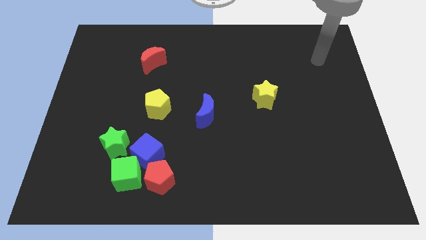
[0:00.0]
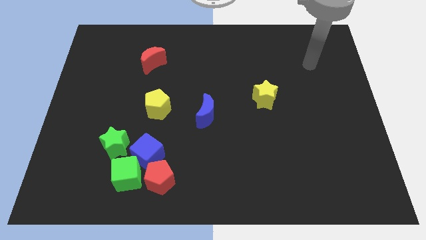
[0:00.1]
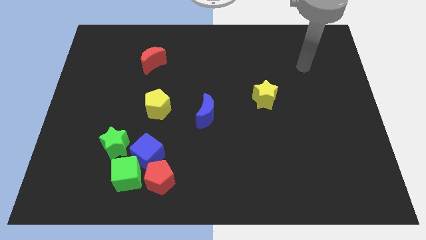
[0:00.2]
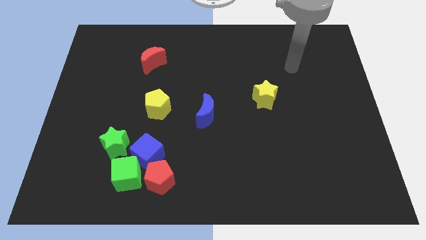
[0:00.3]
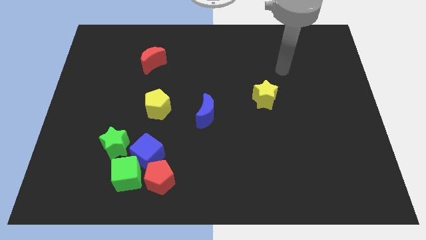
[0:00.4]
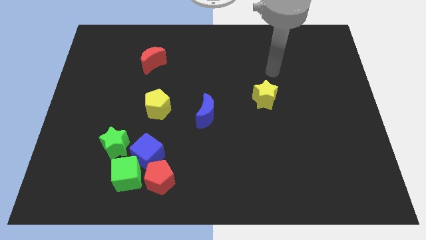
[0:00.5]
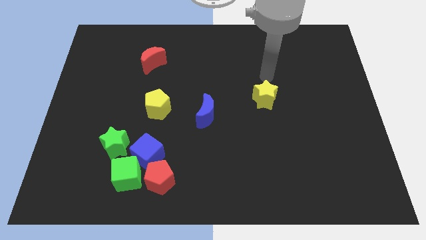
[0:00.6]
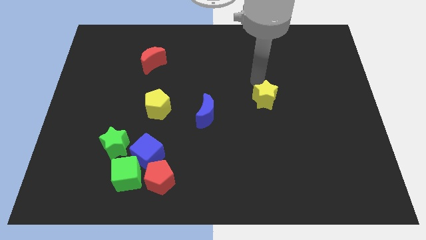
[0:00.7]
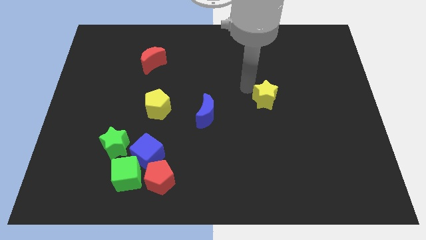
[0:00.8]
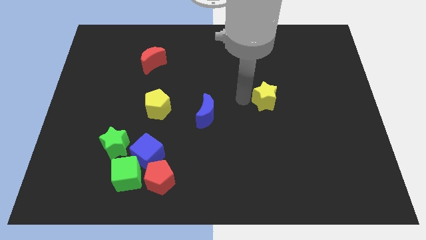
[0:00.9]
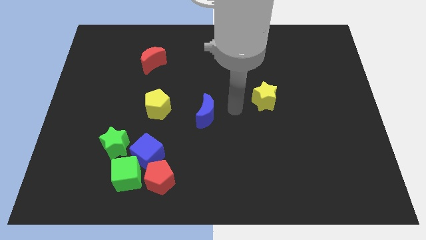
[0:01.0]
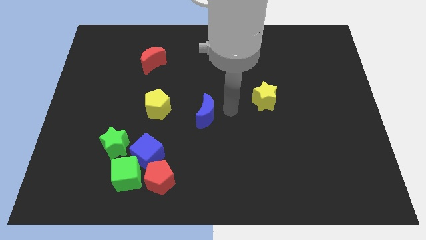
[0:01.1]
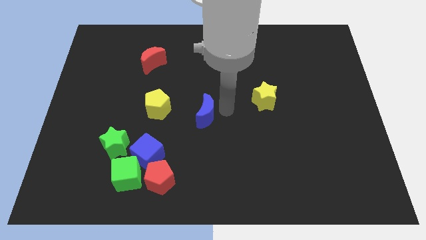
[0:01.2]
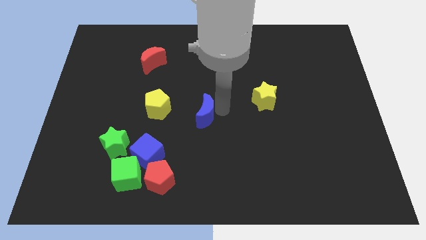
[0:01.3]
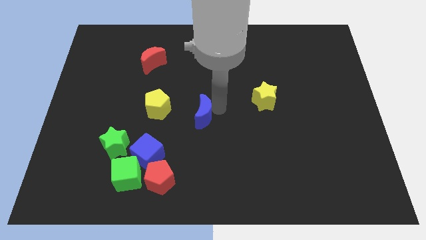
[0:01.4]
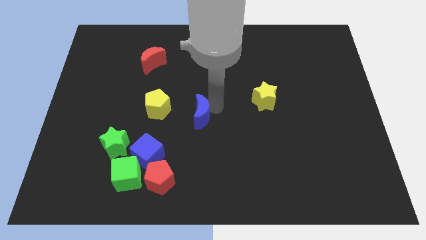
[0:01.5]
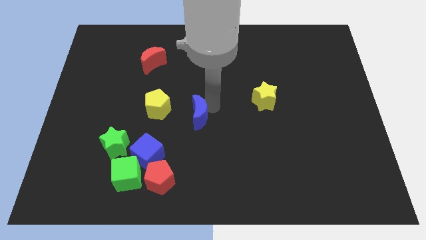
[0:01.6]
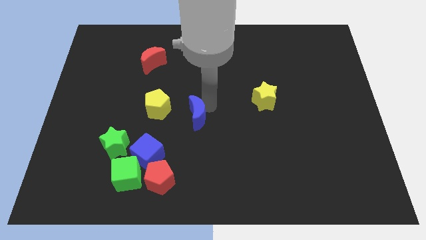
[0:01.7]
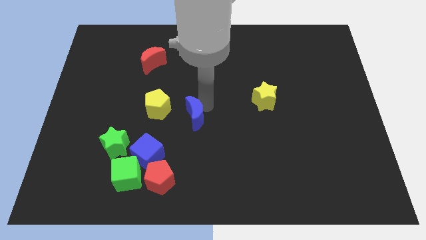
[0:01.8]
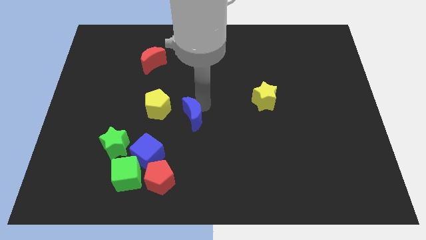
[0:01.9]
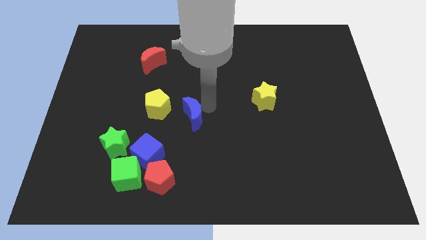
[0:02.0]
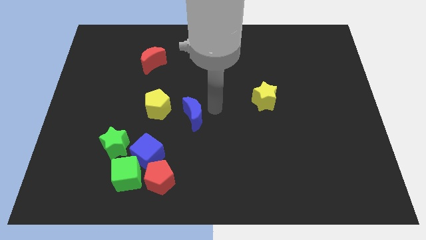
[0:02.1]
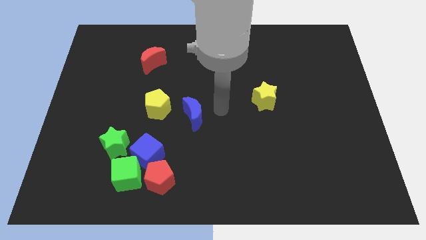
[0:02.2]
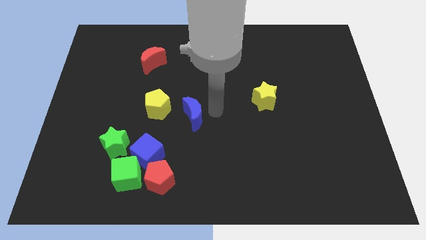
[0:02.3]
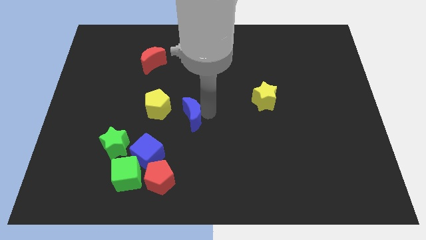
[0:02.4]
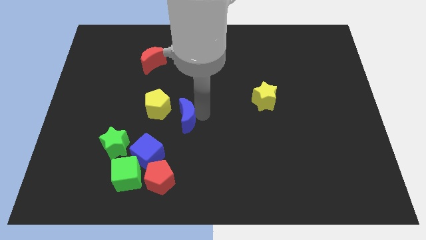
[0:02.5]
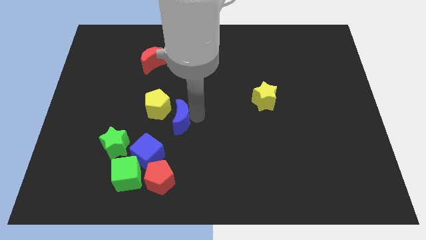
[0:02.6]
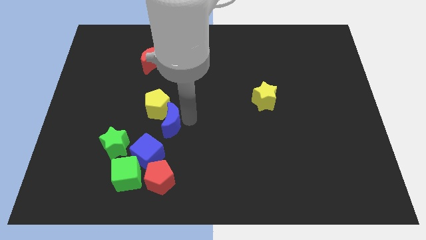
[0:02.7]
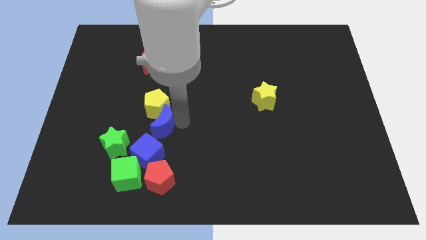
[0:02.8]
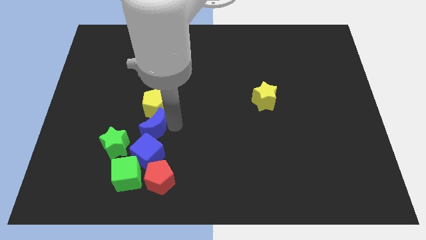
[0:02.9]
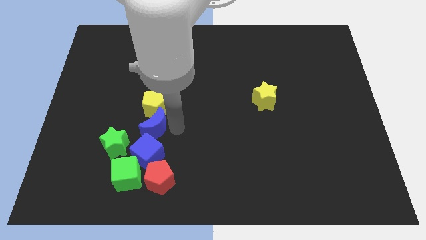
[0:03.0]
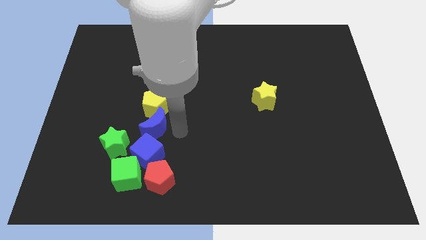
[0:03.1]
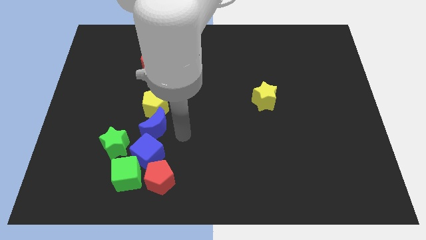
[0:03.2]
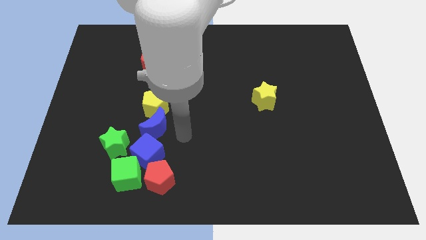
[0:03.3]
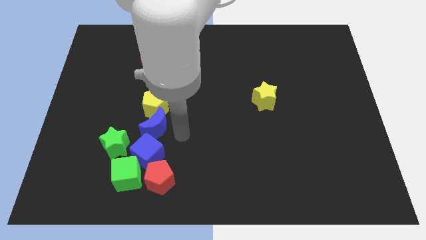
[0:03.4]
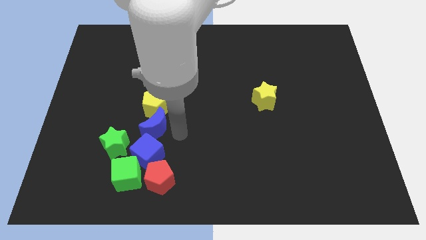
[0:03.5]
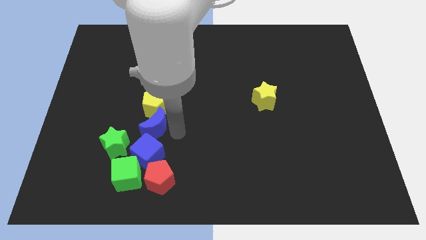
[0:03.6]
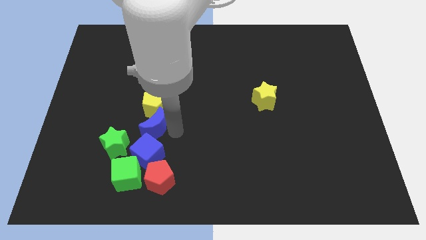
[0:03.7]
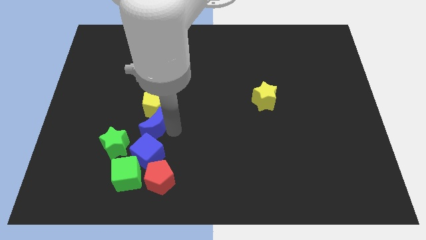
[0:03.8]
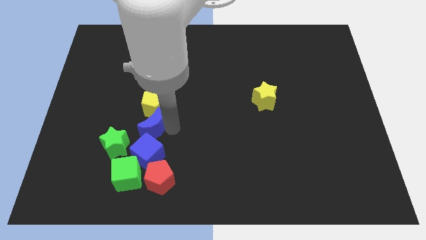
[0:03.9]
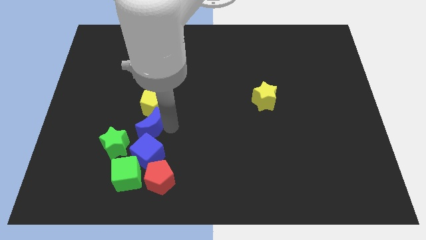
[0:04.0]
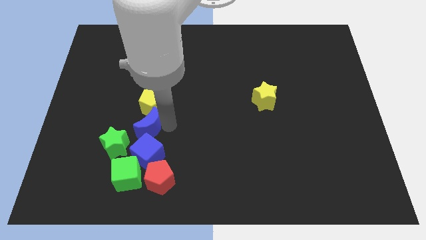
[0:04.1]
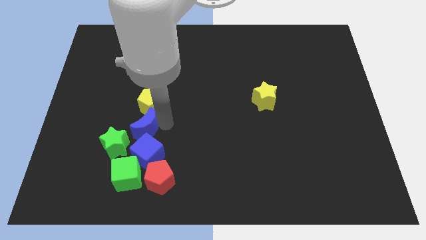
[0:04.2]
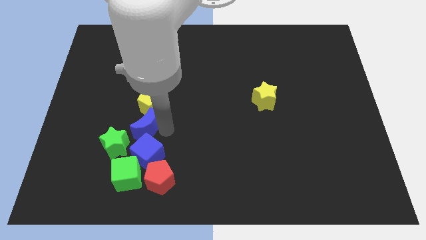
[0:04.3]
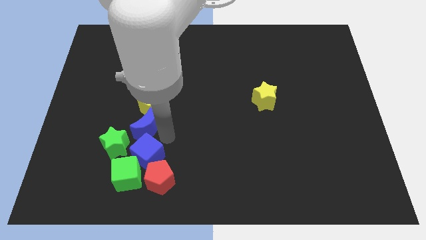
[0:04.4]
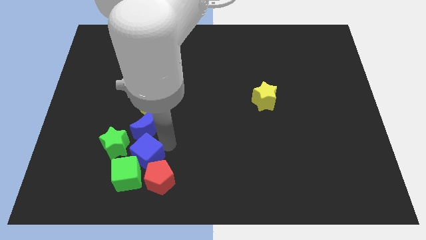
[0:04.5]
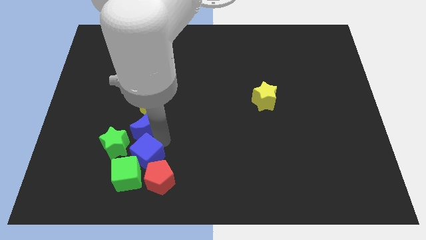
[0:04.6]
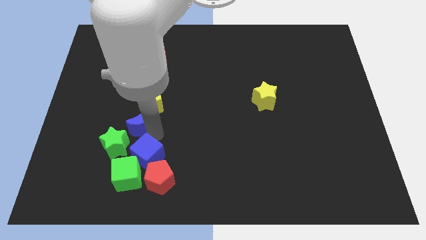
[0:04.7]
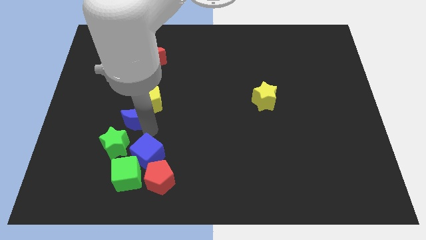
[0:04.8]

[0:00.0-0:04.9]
push the blue moon to the top of the green star

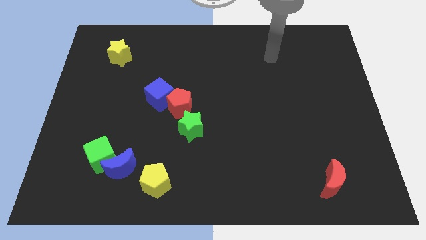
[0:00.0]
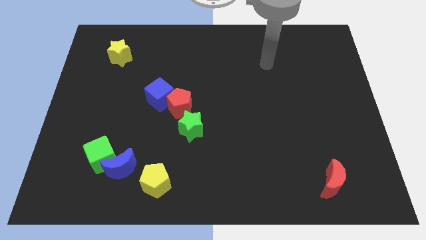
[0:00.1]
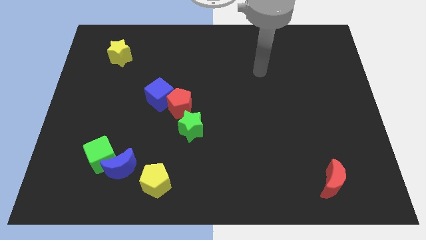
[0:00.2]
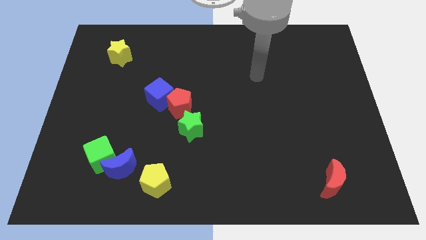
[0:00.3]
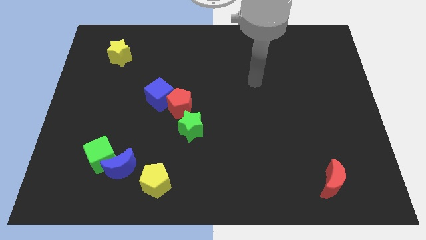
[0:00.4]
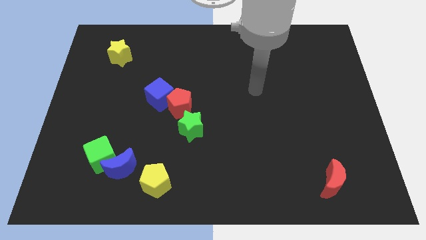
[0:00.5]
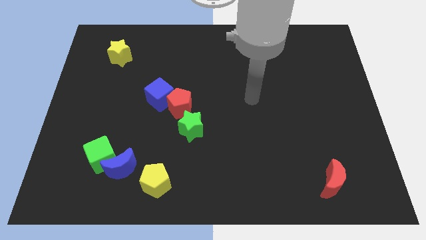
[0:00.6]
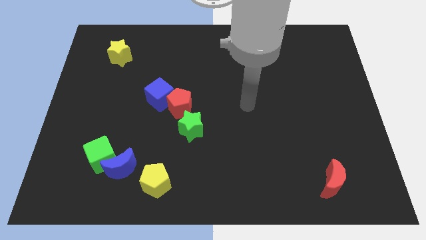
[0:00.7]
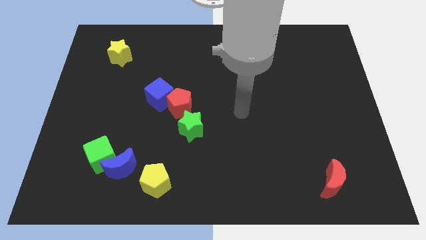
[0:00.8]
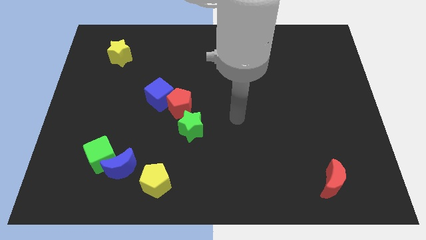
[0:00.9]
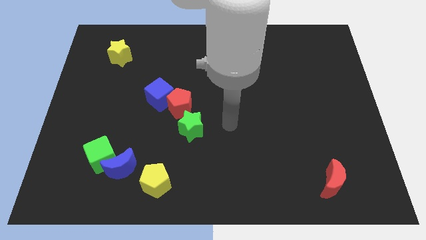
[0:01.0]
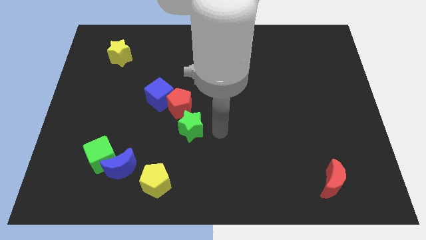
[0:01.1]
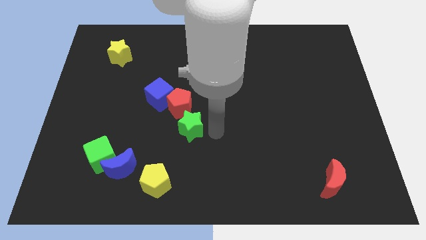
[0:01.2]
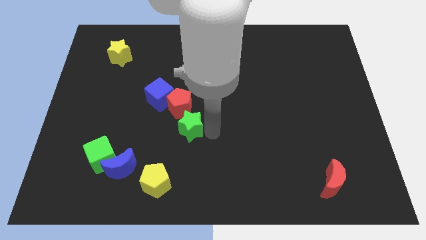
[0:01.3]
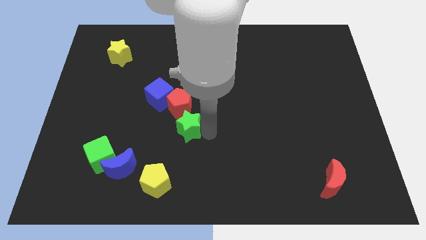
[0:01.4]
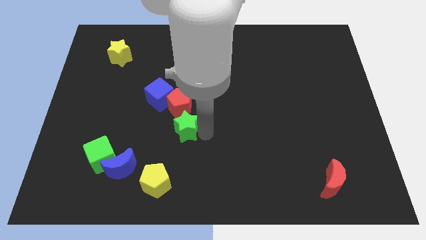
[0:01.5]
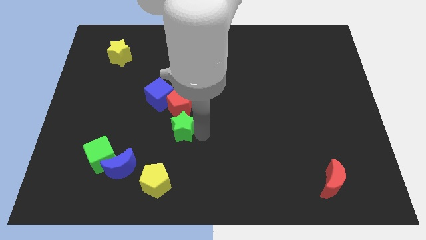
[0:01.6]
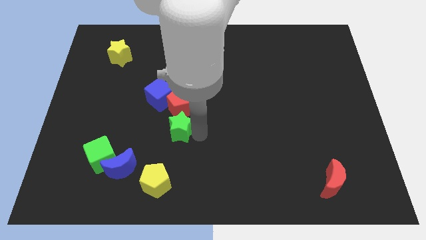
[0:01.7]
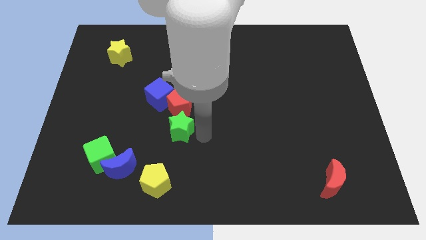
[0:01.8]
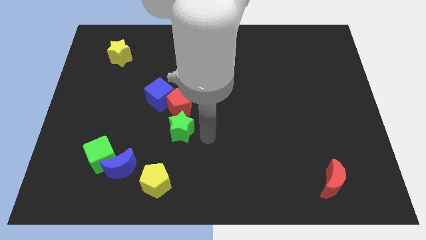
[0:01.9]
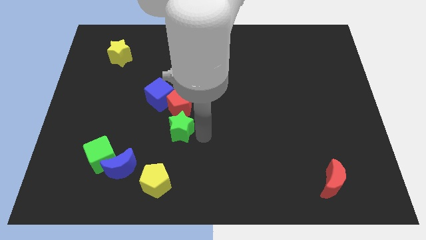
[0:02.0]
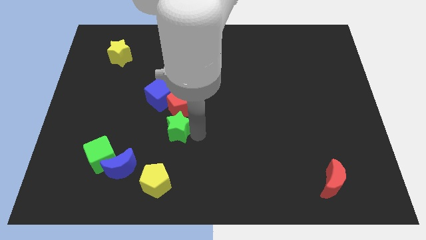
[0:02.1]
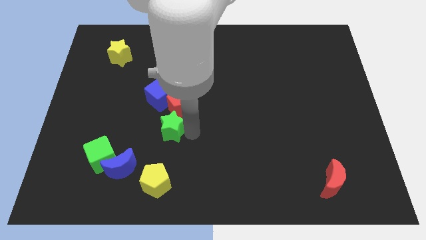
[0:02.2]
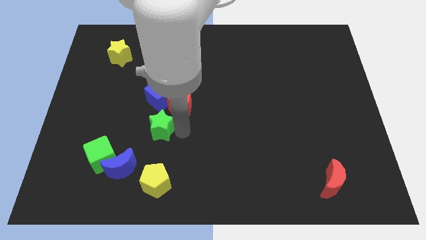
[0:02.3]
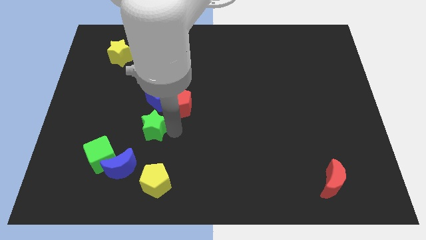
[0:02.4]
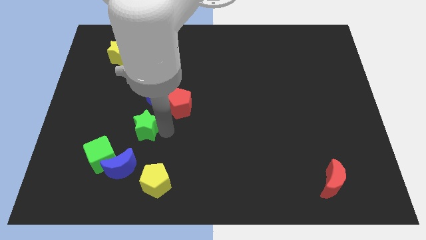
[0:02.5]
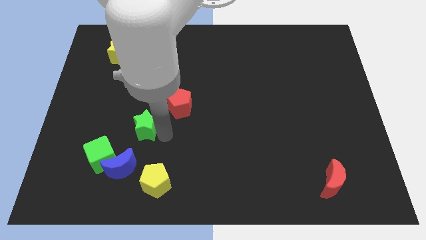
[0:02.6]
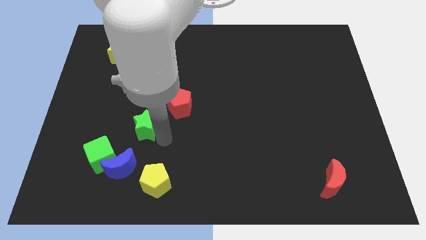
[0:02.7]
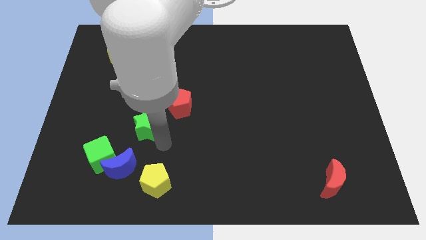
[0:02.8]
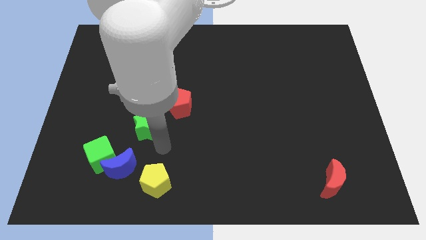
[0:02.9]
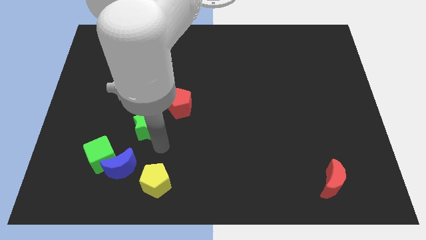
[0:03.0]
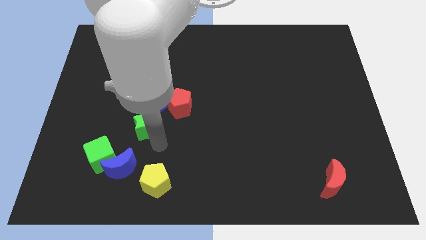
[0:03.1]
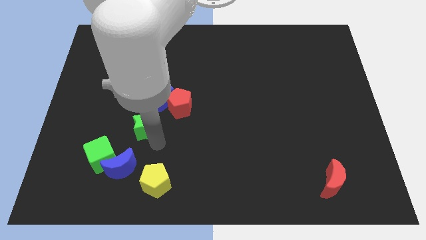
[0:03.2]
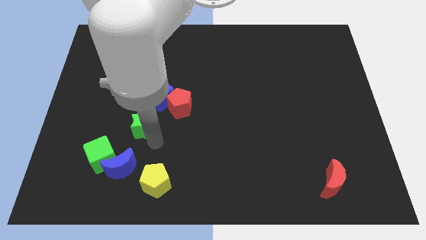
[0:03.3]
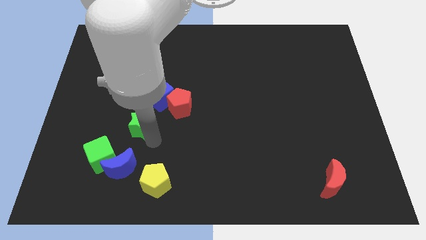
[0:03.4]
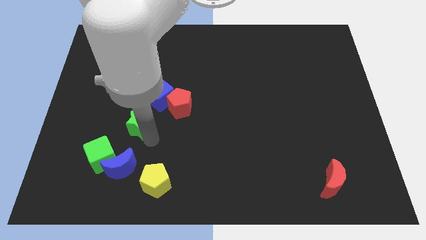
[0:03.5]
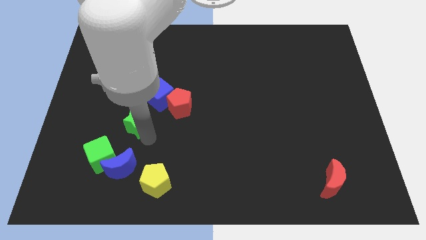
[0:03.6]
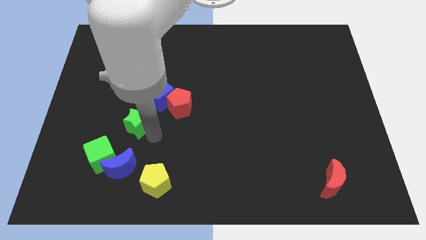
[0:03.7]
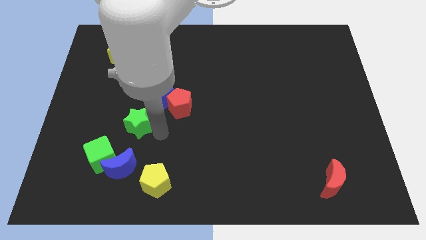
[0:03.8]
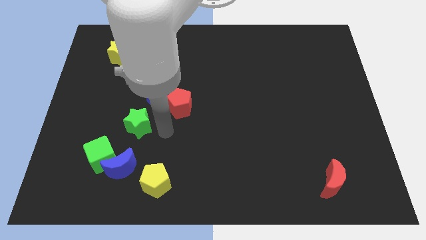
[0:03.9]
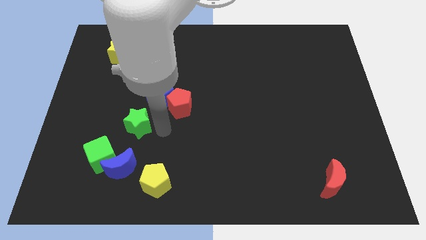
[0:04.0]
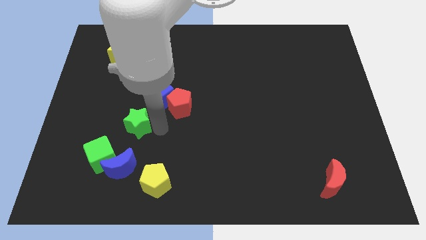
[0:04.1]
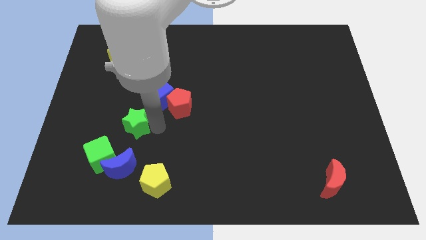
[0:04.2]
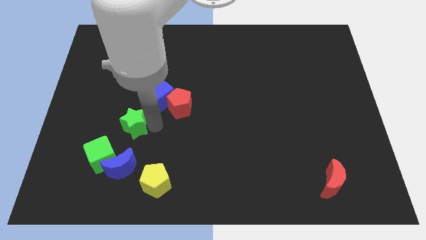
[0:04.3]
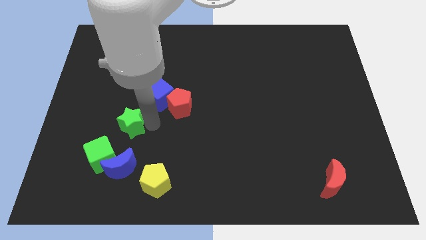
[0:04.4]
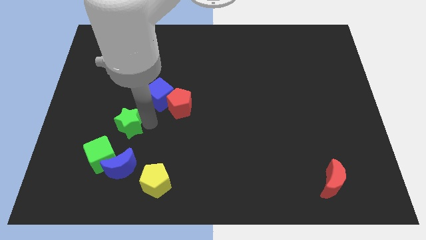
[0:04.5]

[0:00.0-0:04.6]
push the green star to the top side of the green cube
